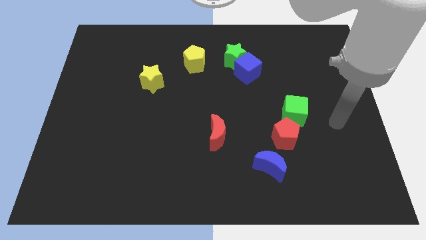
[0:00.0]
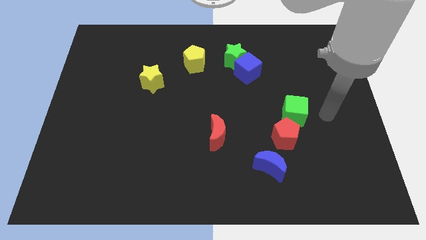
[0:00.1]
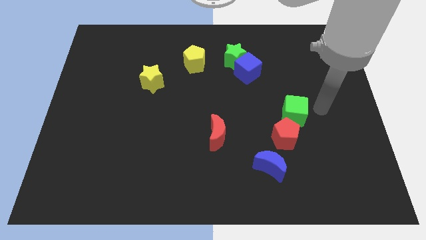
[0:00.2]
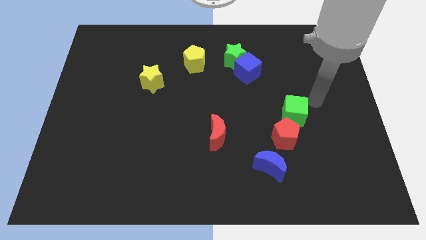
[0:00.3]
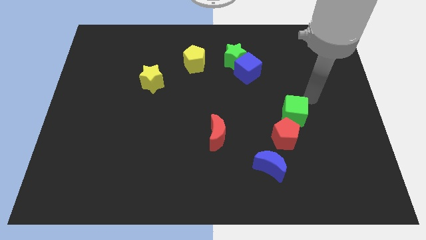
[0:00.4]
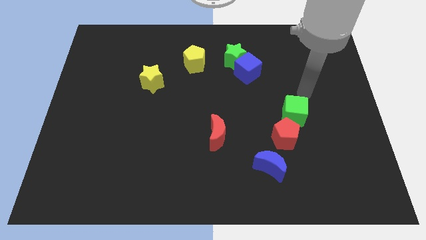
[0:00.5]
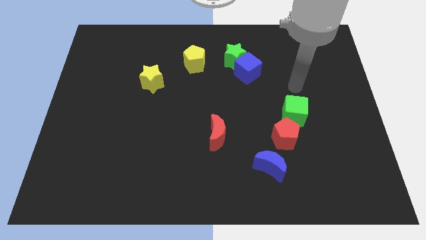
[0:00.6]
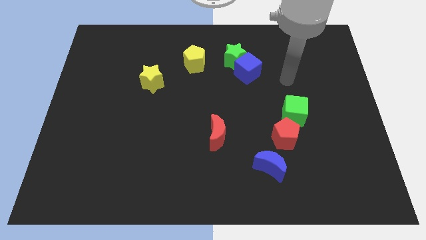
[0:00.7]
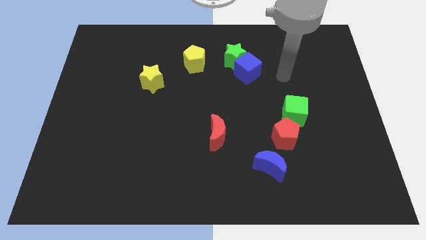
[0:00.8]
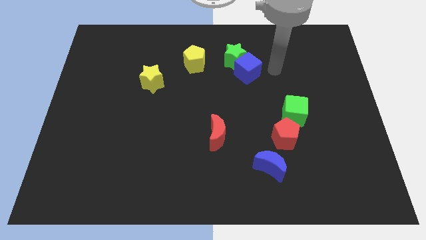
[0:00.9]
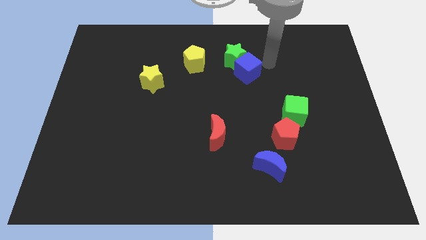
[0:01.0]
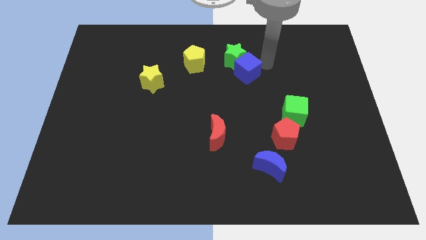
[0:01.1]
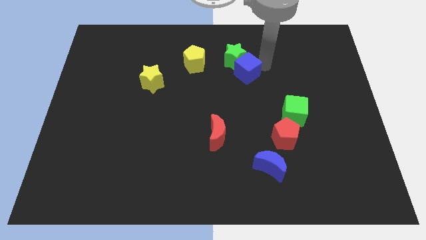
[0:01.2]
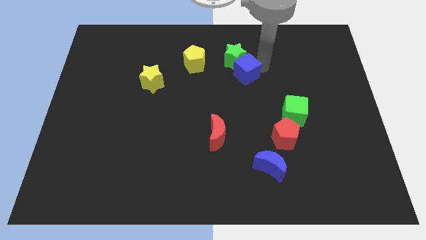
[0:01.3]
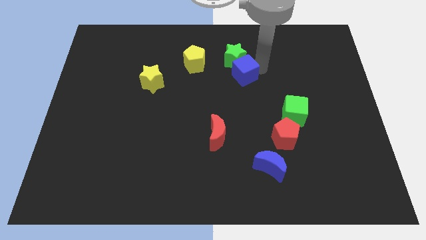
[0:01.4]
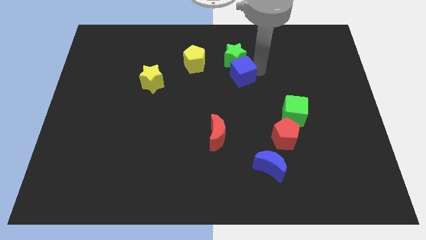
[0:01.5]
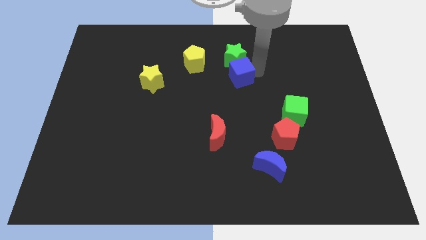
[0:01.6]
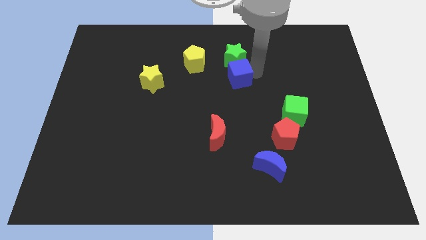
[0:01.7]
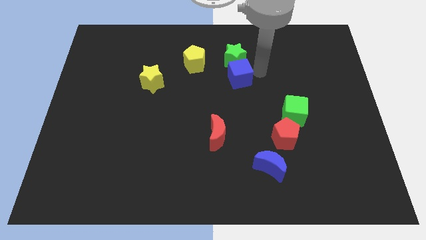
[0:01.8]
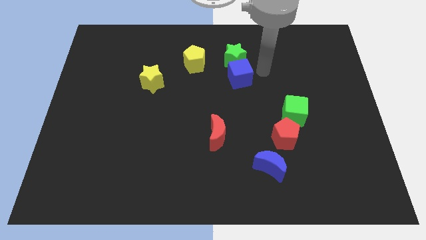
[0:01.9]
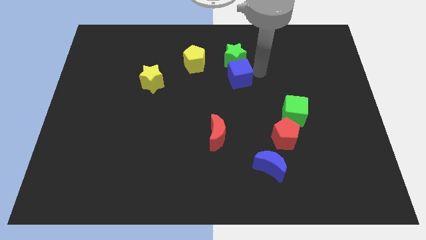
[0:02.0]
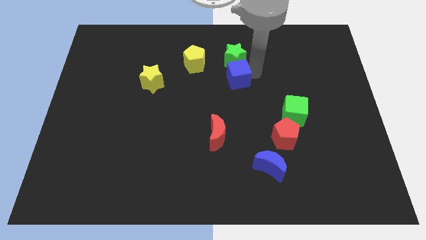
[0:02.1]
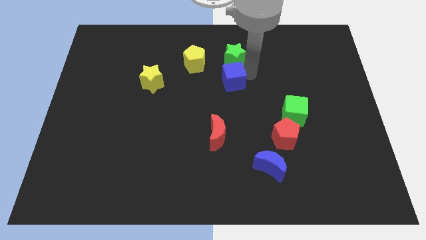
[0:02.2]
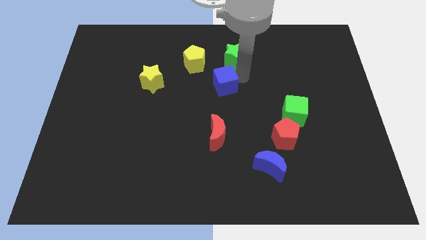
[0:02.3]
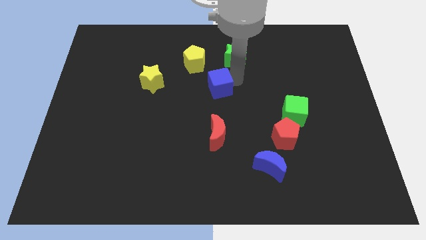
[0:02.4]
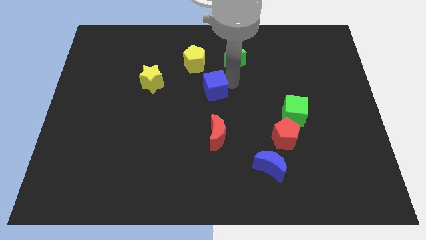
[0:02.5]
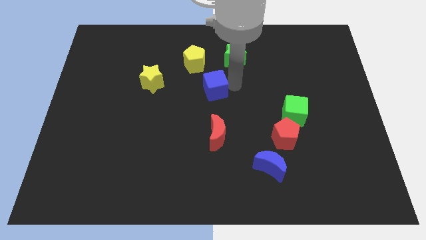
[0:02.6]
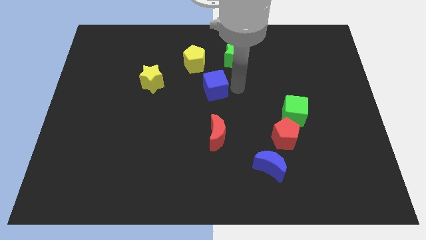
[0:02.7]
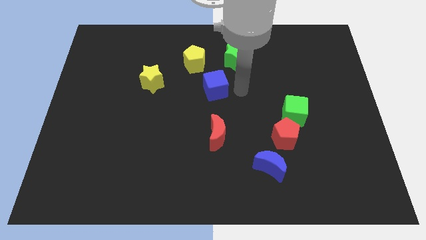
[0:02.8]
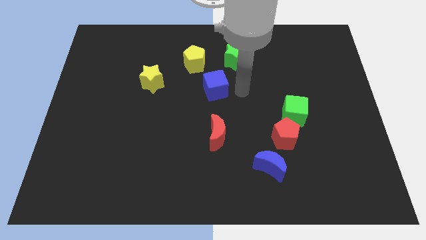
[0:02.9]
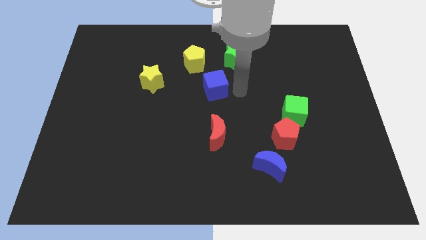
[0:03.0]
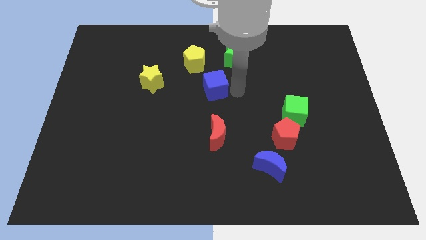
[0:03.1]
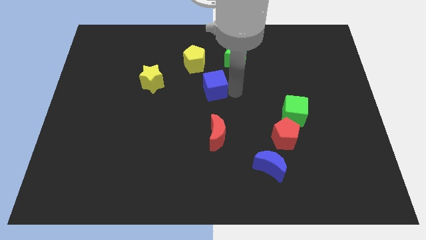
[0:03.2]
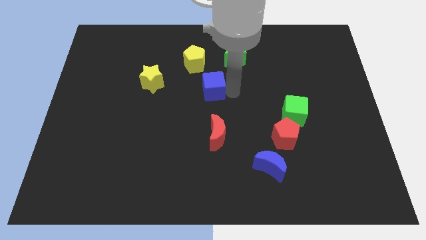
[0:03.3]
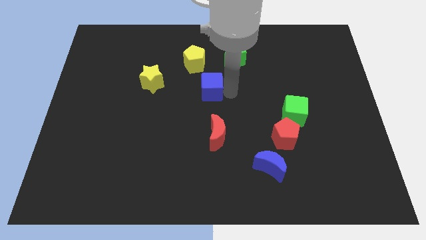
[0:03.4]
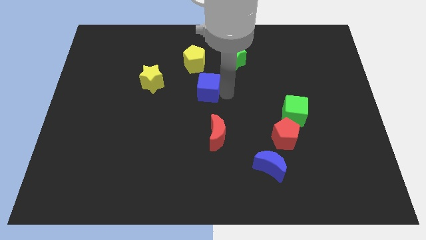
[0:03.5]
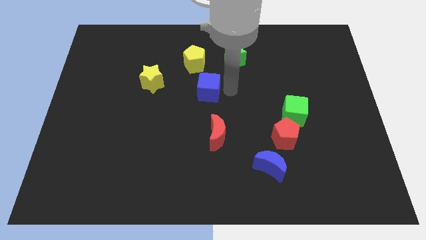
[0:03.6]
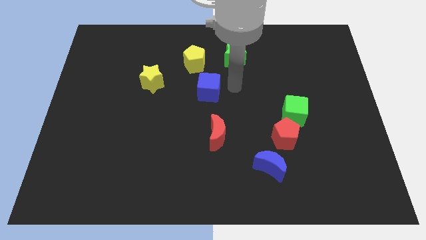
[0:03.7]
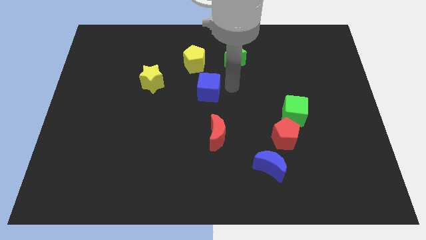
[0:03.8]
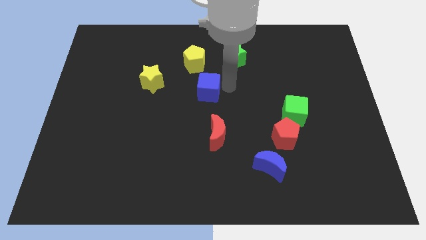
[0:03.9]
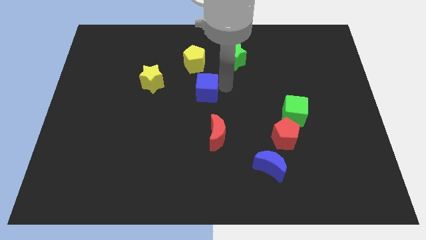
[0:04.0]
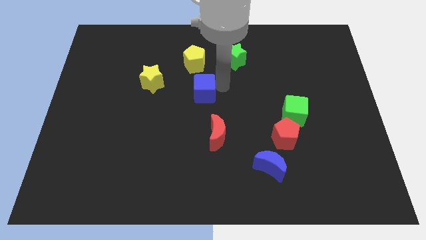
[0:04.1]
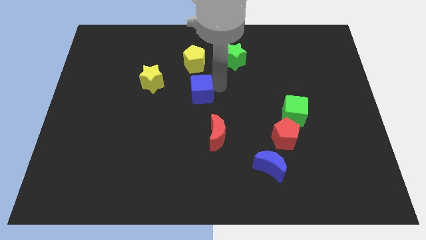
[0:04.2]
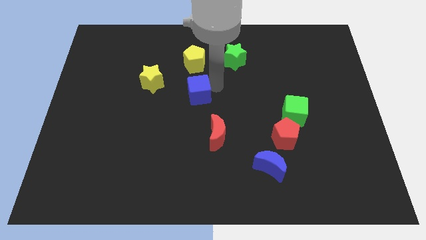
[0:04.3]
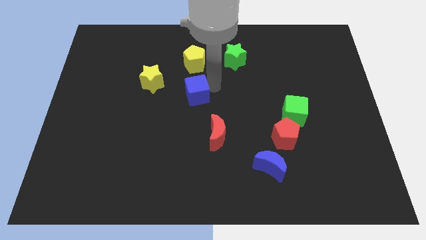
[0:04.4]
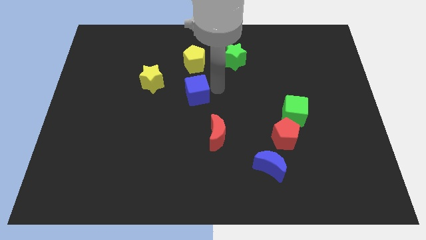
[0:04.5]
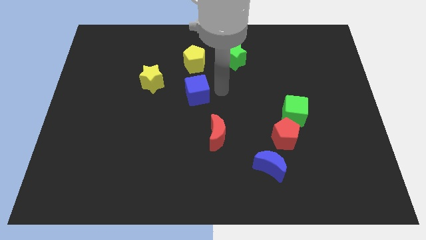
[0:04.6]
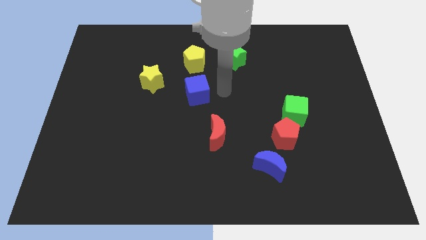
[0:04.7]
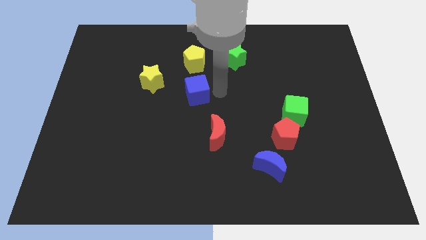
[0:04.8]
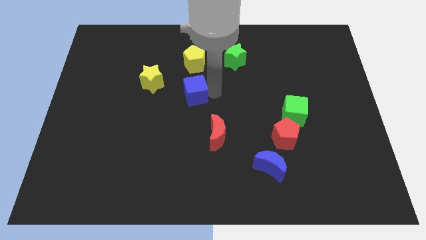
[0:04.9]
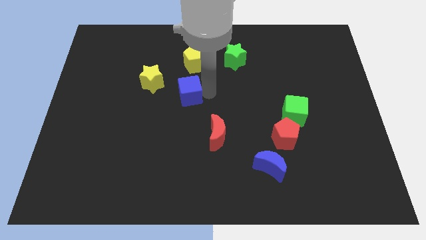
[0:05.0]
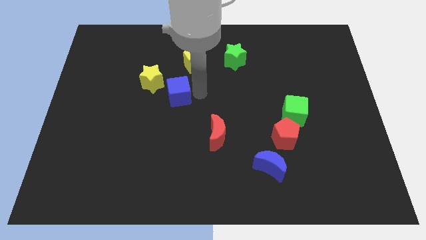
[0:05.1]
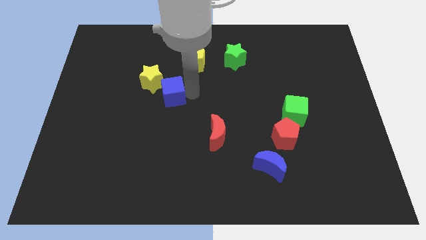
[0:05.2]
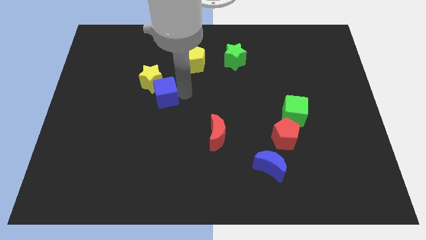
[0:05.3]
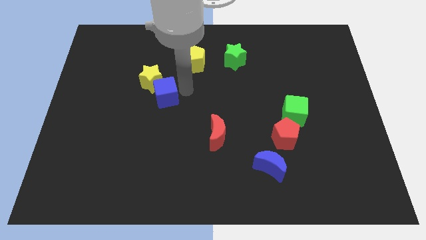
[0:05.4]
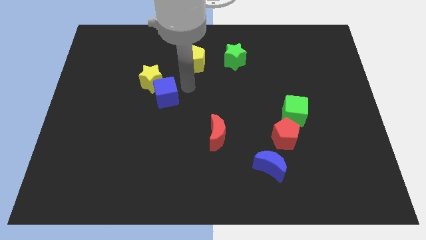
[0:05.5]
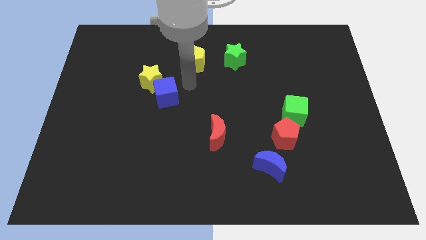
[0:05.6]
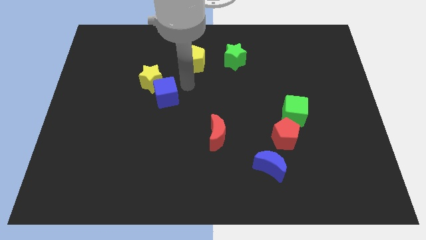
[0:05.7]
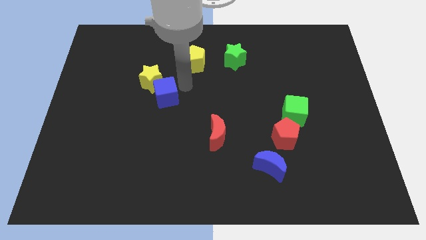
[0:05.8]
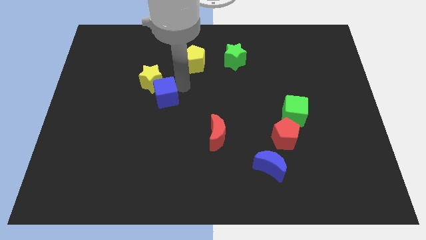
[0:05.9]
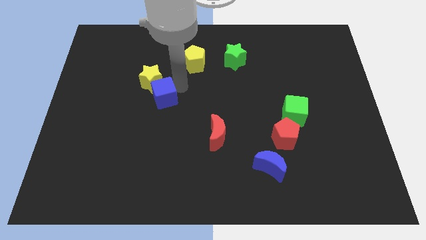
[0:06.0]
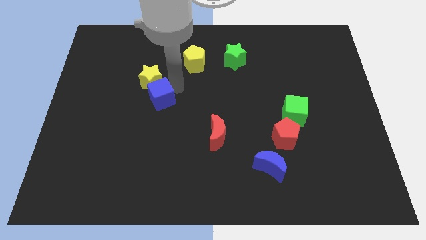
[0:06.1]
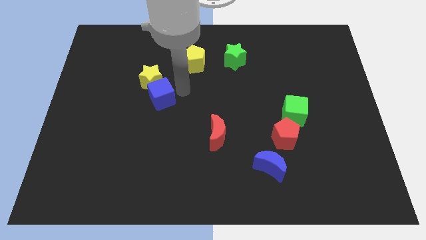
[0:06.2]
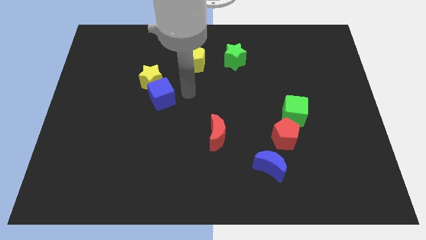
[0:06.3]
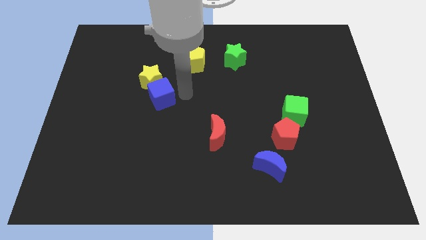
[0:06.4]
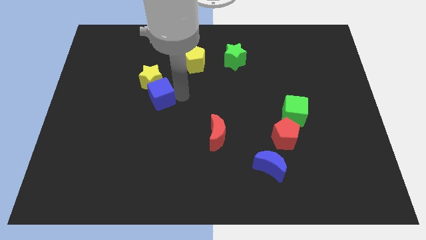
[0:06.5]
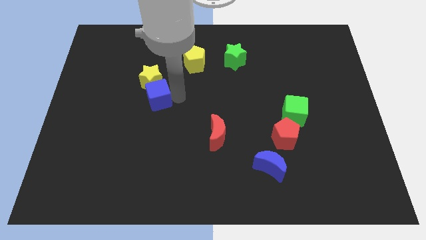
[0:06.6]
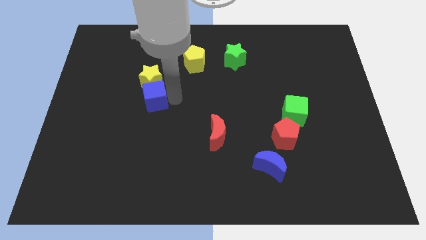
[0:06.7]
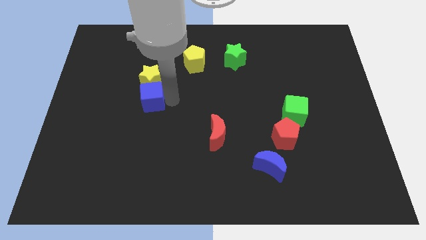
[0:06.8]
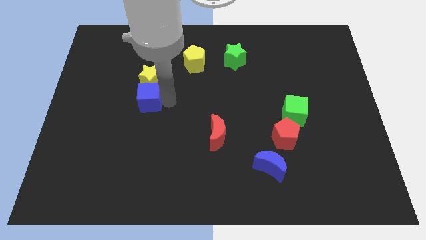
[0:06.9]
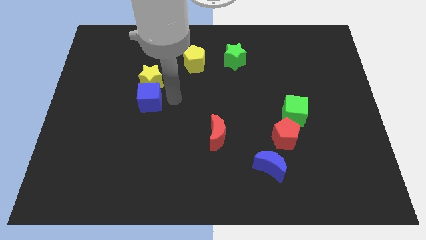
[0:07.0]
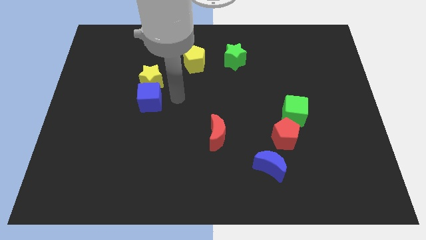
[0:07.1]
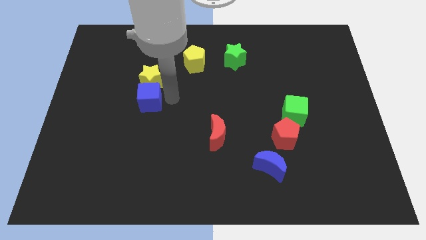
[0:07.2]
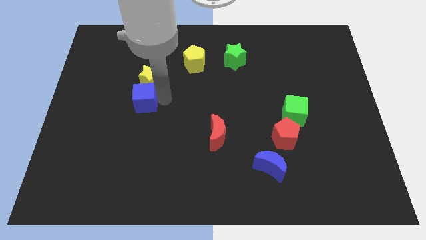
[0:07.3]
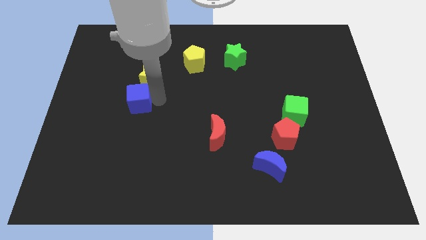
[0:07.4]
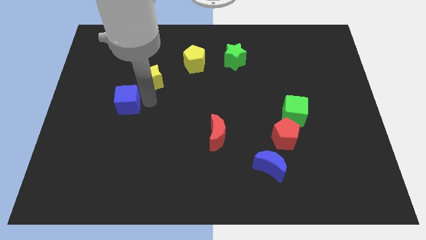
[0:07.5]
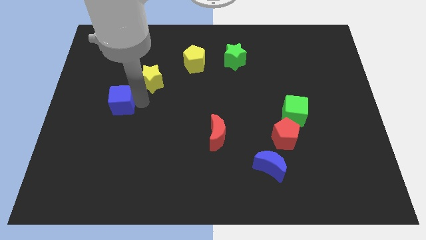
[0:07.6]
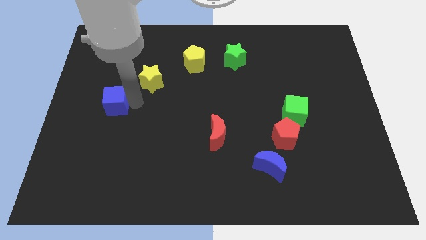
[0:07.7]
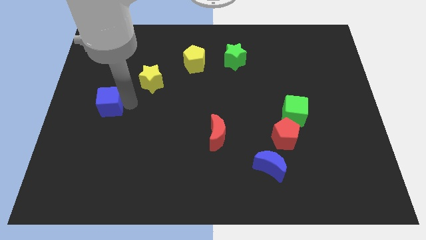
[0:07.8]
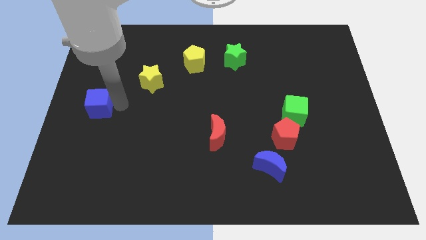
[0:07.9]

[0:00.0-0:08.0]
move the blue cube to the left side

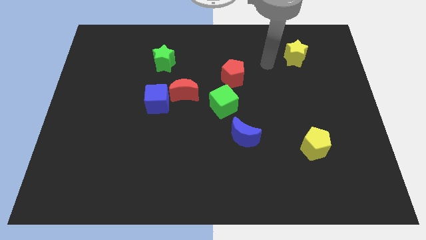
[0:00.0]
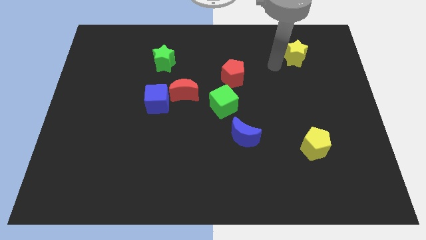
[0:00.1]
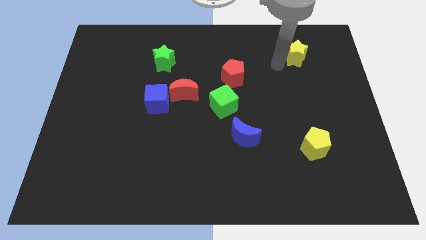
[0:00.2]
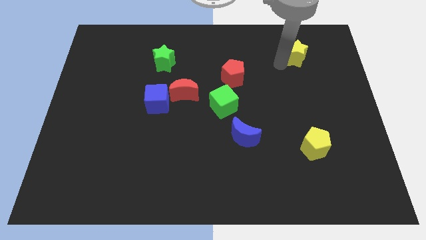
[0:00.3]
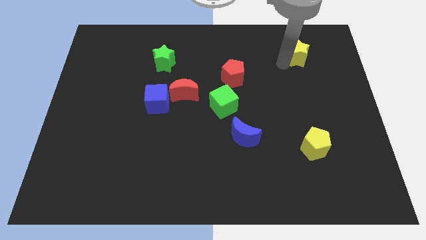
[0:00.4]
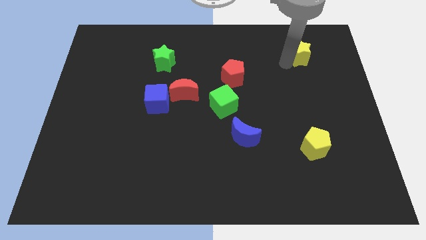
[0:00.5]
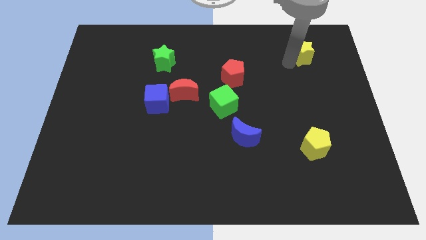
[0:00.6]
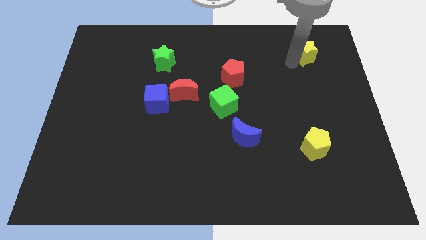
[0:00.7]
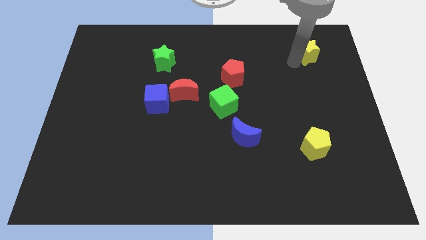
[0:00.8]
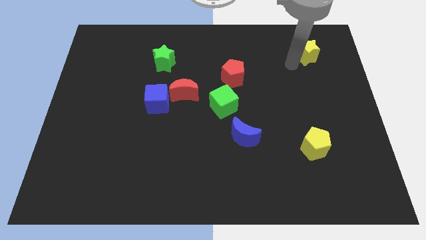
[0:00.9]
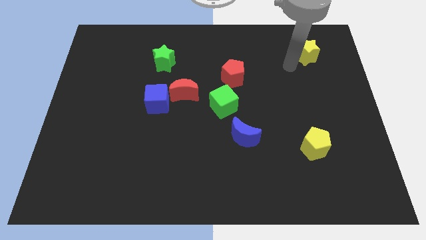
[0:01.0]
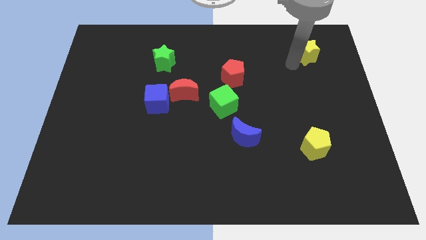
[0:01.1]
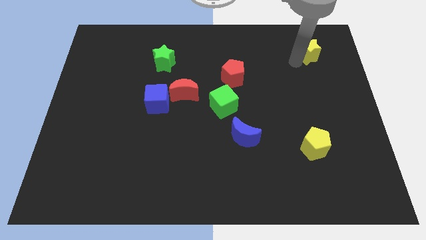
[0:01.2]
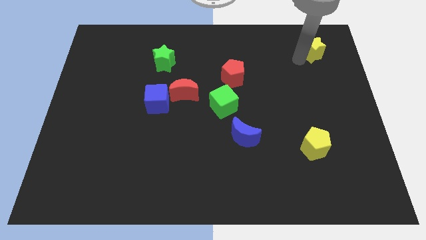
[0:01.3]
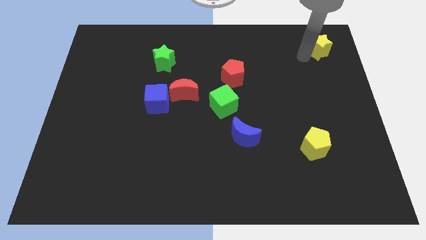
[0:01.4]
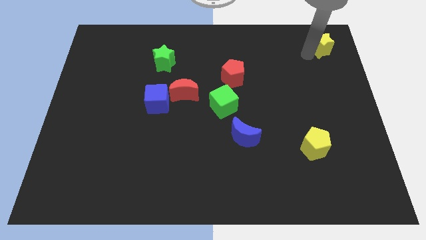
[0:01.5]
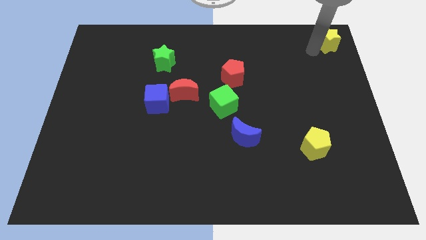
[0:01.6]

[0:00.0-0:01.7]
move the yellow star to the top right of the board
